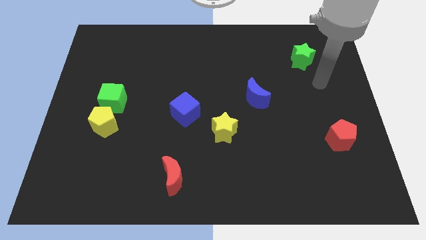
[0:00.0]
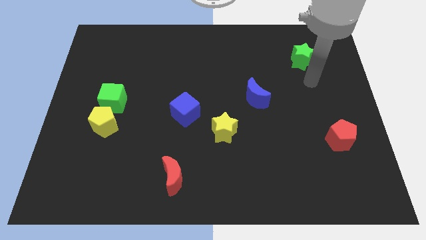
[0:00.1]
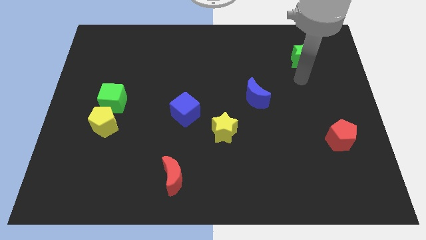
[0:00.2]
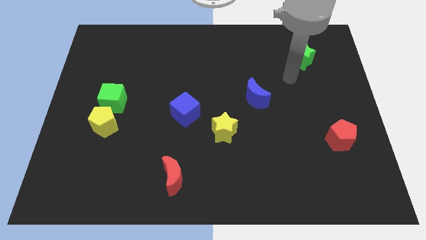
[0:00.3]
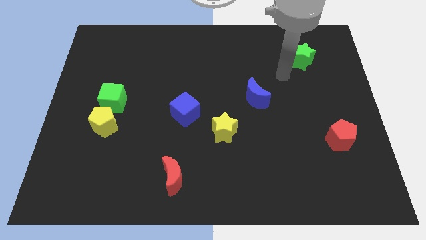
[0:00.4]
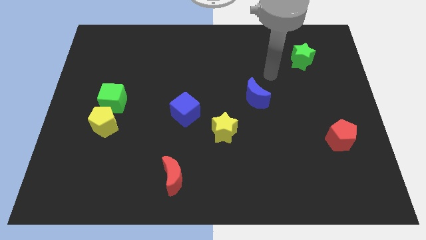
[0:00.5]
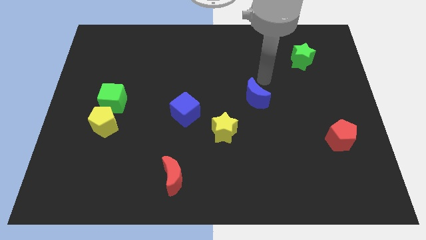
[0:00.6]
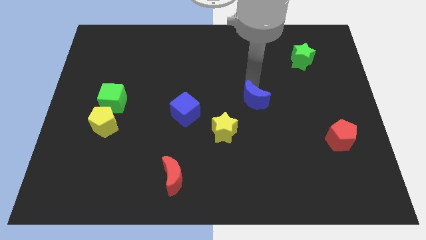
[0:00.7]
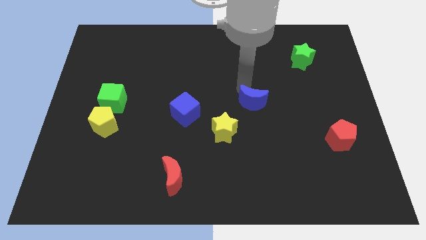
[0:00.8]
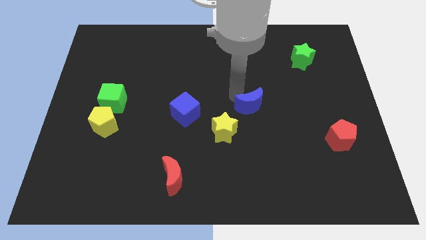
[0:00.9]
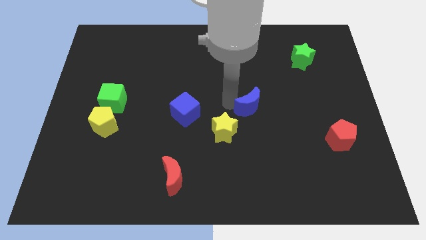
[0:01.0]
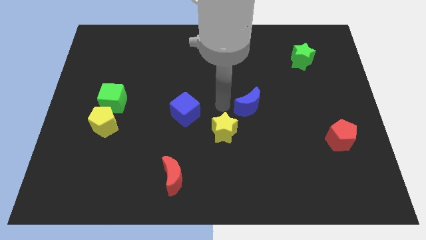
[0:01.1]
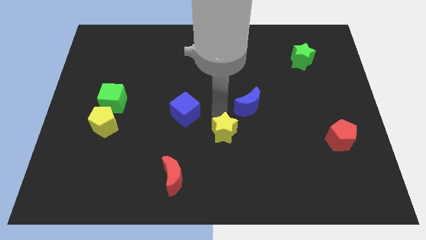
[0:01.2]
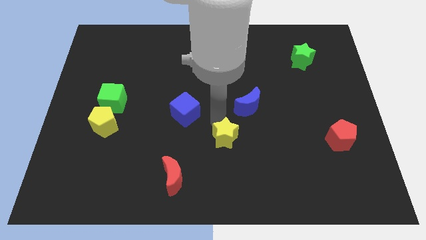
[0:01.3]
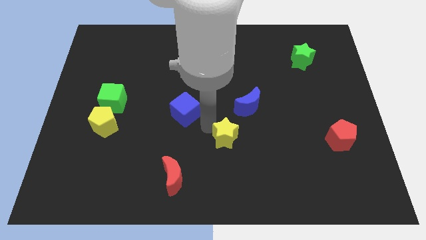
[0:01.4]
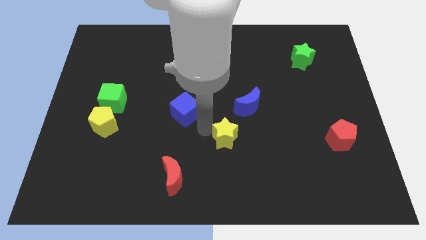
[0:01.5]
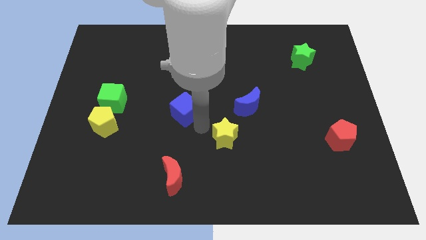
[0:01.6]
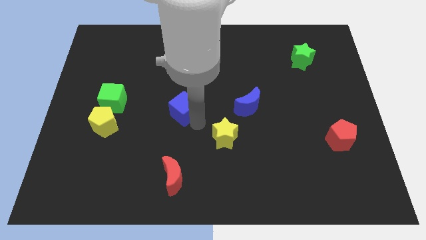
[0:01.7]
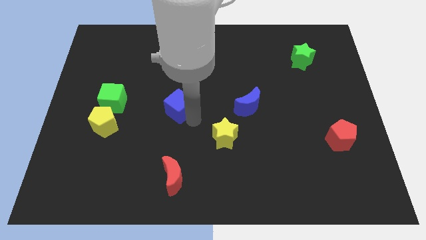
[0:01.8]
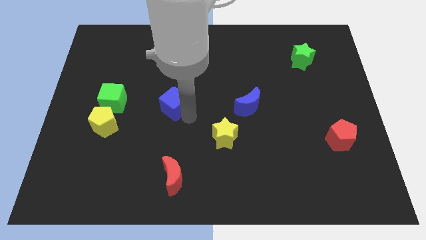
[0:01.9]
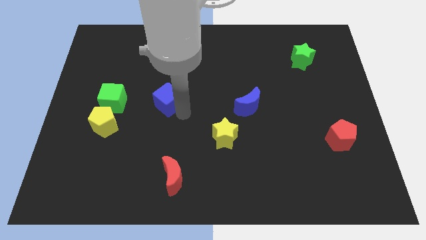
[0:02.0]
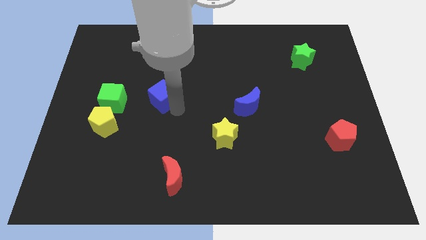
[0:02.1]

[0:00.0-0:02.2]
slightly slide the blue cube diagonally up and left

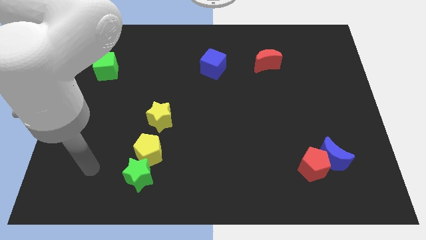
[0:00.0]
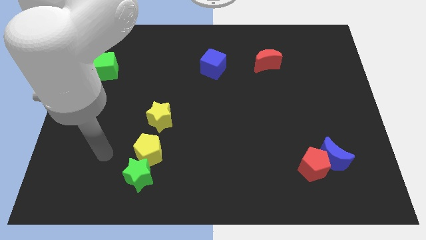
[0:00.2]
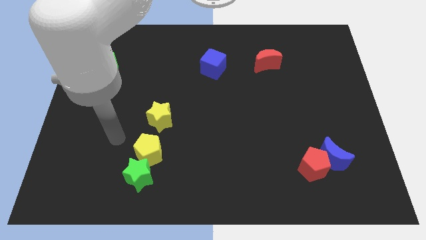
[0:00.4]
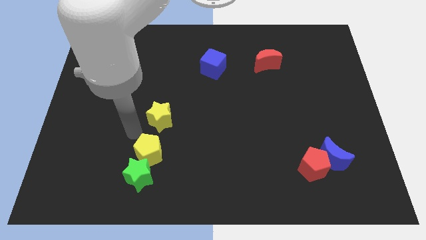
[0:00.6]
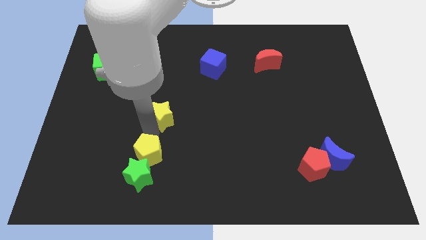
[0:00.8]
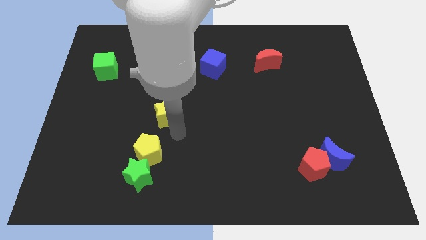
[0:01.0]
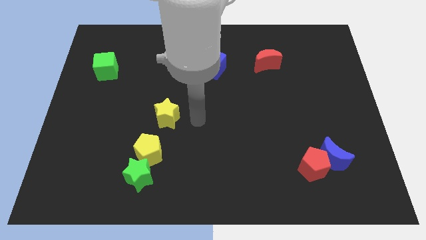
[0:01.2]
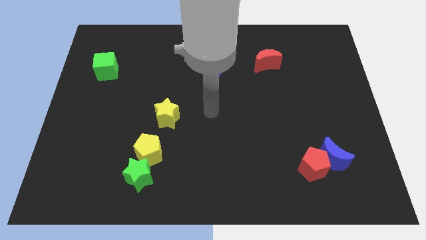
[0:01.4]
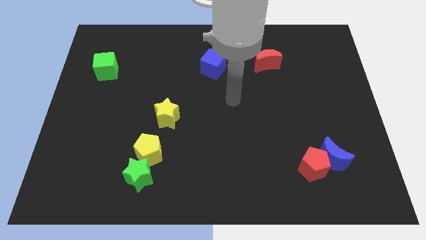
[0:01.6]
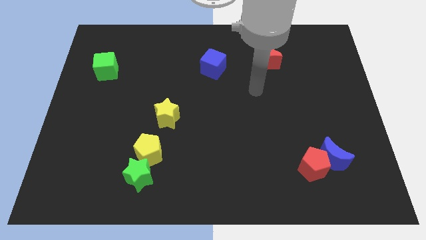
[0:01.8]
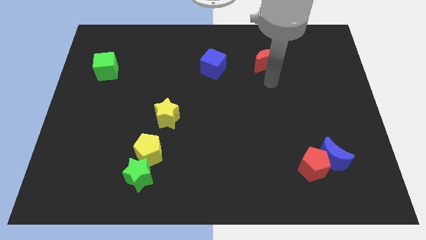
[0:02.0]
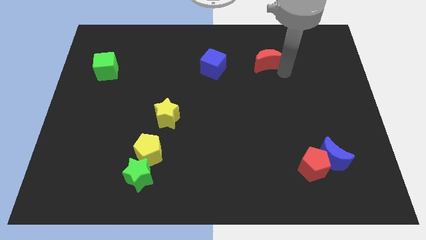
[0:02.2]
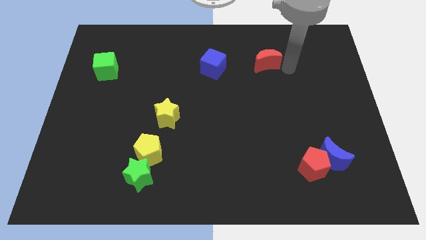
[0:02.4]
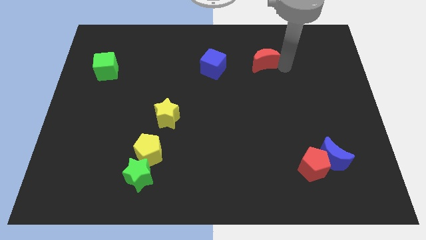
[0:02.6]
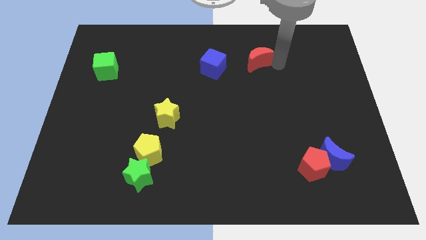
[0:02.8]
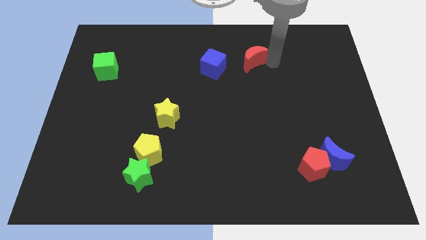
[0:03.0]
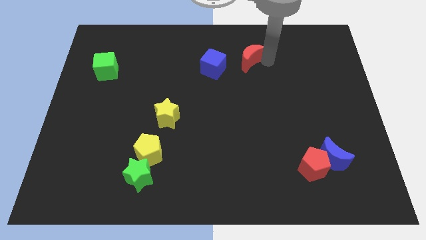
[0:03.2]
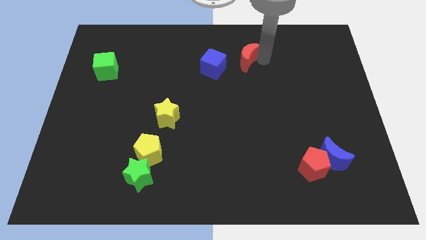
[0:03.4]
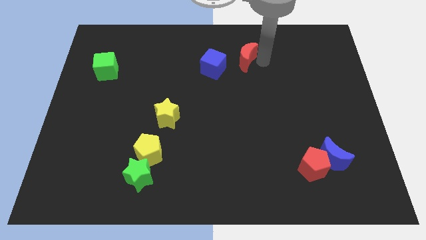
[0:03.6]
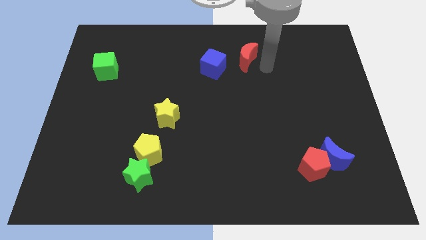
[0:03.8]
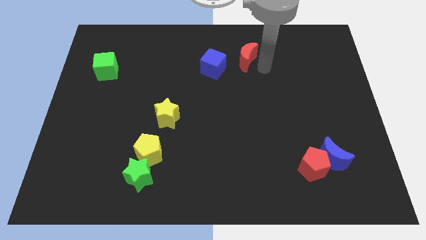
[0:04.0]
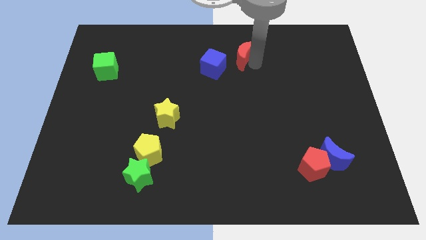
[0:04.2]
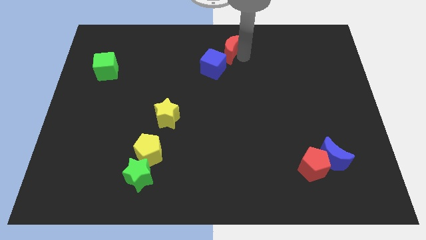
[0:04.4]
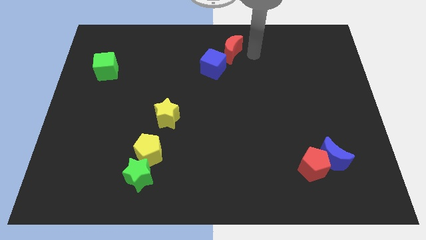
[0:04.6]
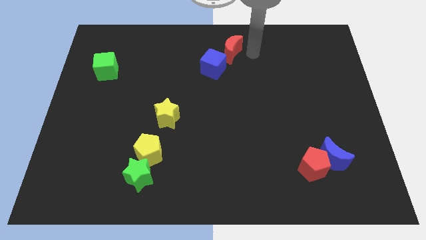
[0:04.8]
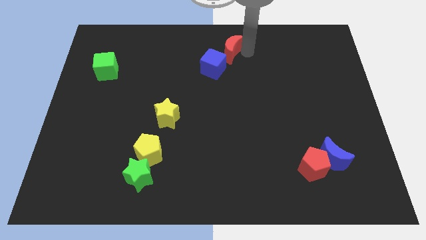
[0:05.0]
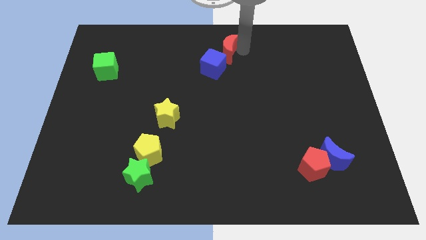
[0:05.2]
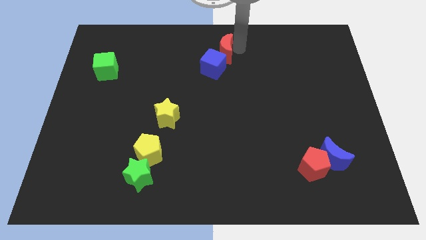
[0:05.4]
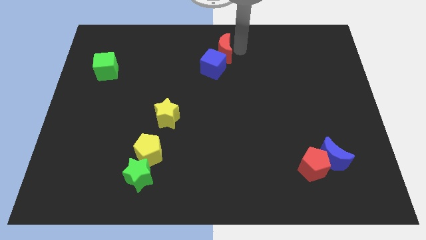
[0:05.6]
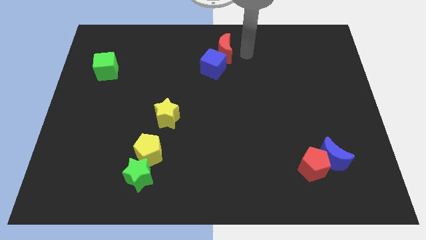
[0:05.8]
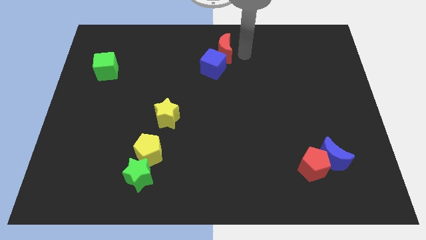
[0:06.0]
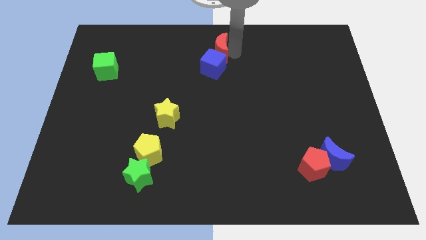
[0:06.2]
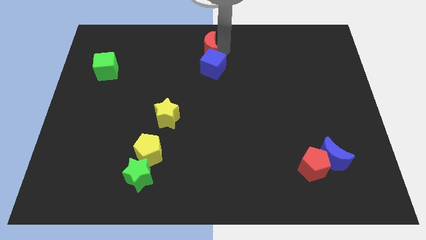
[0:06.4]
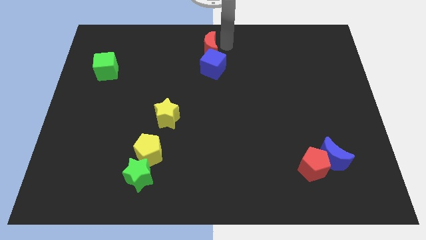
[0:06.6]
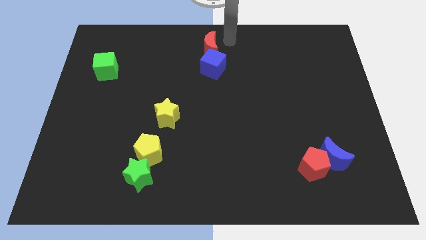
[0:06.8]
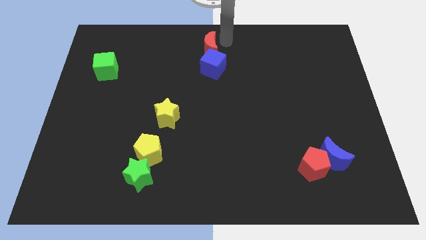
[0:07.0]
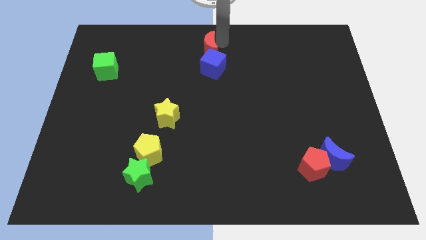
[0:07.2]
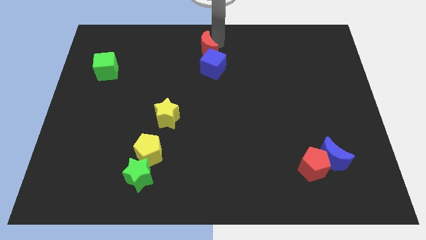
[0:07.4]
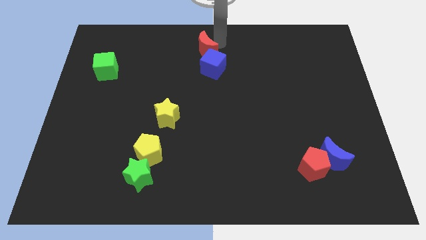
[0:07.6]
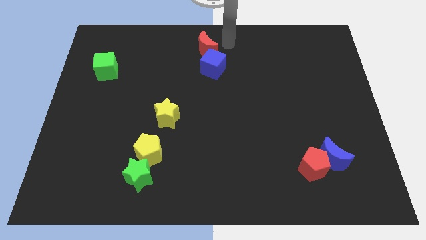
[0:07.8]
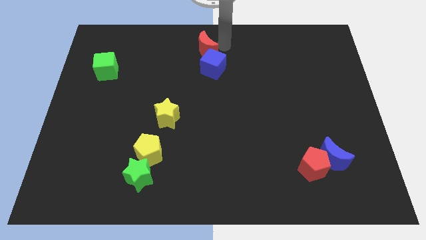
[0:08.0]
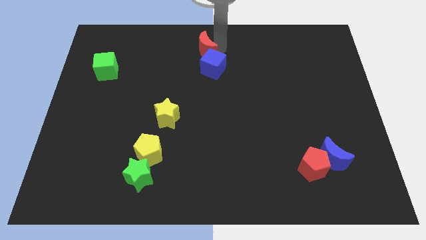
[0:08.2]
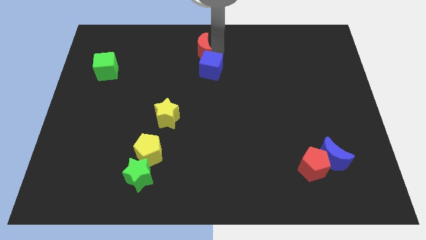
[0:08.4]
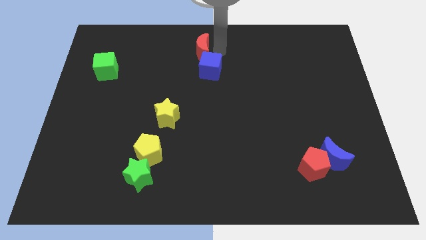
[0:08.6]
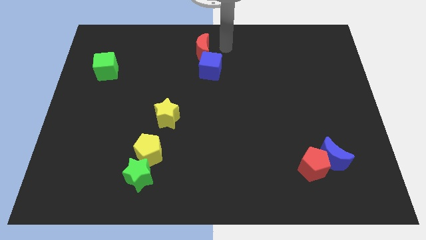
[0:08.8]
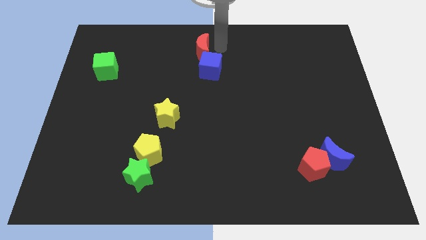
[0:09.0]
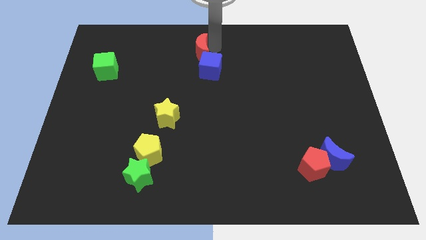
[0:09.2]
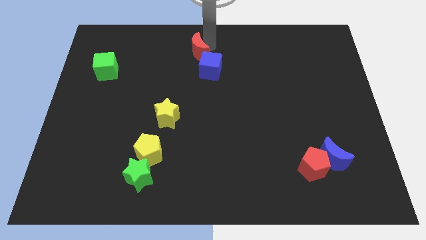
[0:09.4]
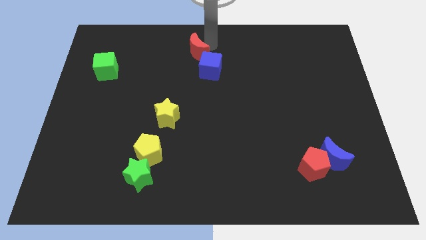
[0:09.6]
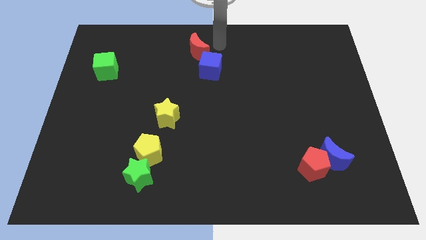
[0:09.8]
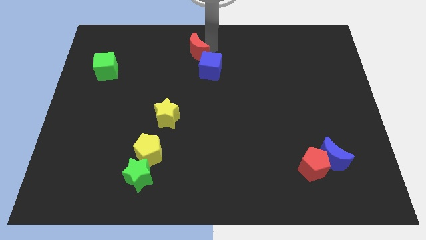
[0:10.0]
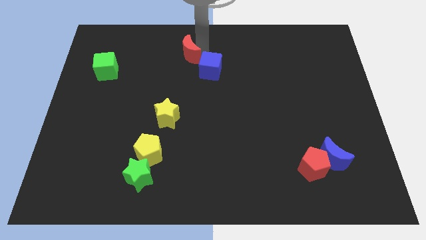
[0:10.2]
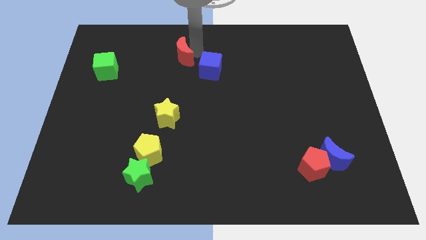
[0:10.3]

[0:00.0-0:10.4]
move the red moon left
